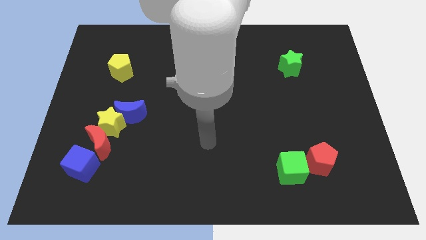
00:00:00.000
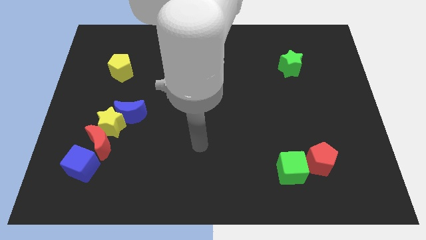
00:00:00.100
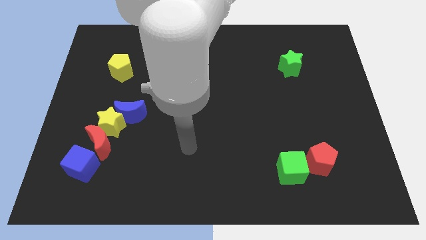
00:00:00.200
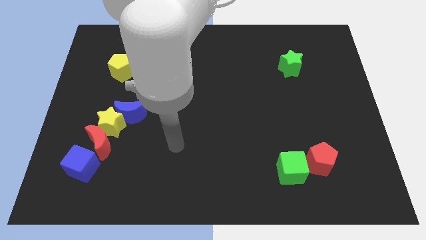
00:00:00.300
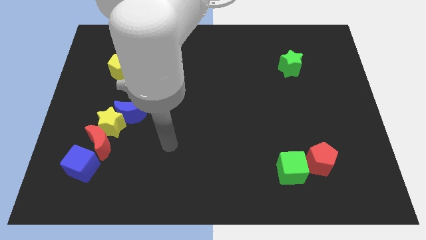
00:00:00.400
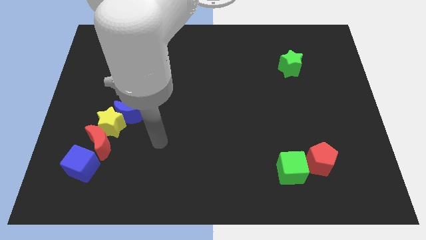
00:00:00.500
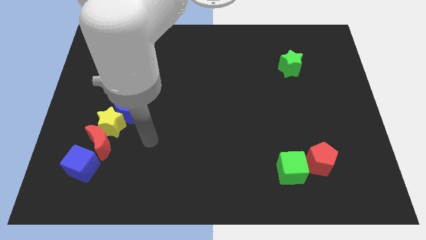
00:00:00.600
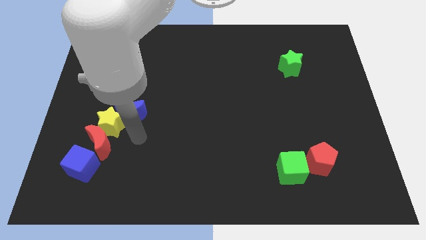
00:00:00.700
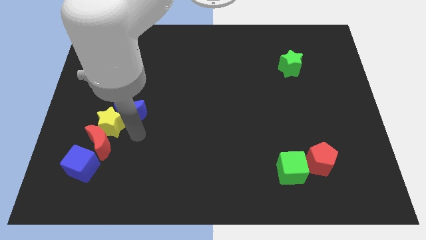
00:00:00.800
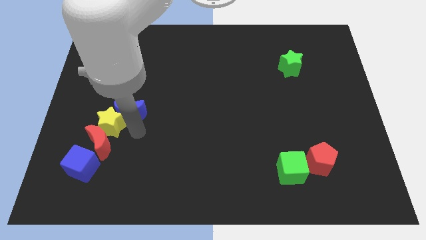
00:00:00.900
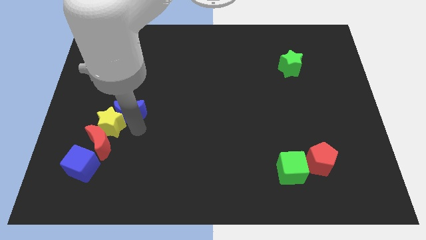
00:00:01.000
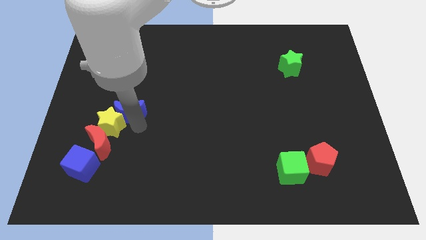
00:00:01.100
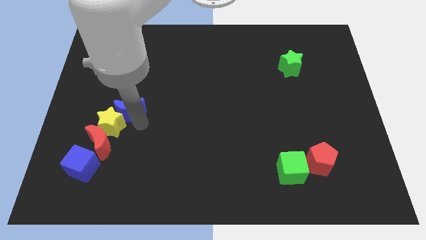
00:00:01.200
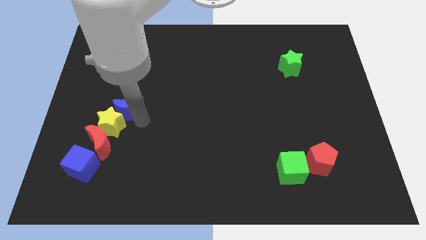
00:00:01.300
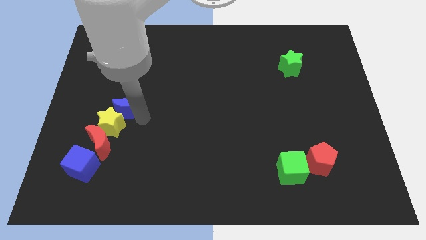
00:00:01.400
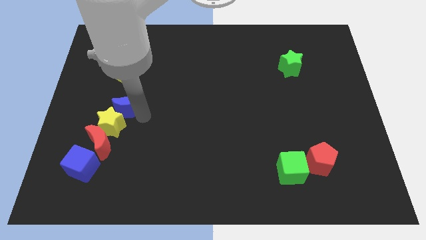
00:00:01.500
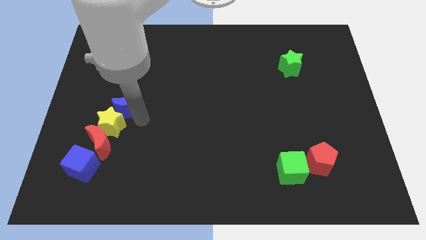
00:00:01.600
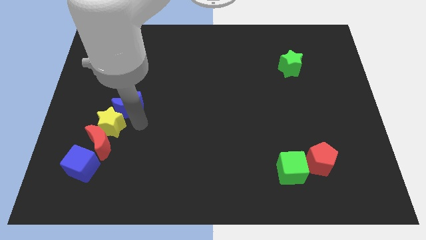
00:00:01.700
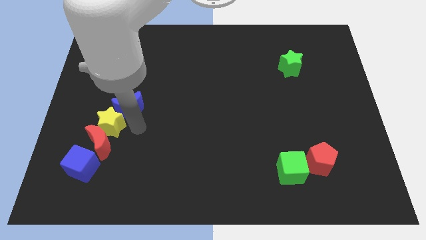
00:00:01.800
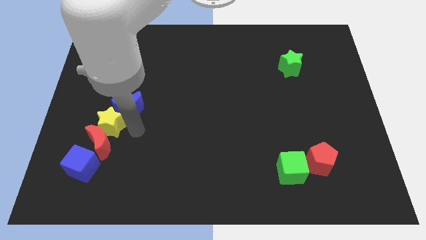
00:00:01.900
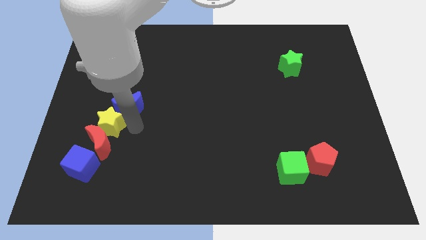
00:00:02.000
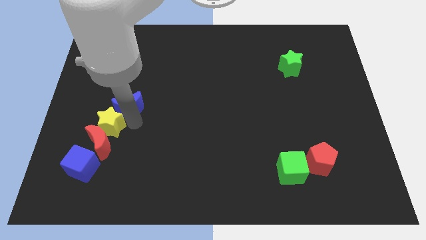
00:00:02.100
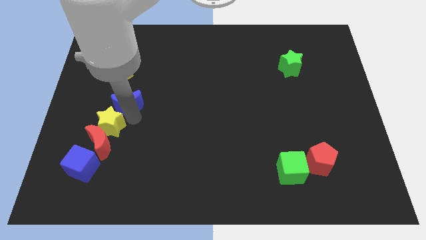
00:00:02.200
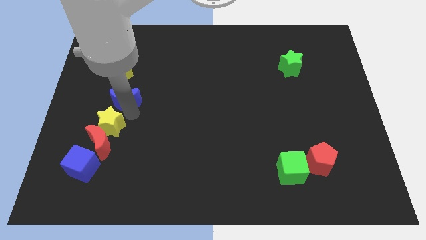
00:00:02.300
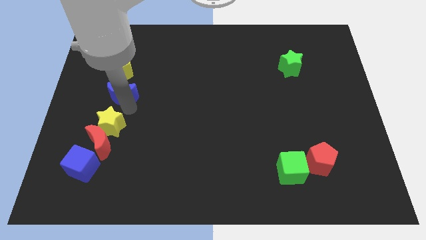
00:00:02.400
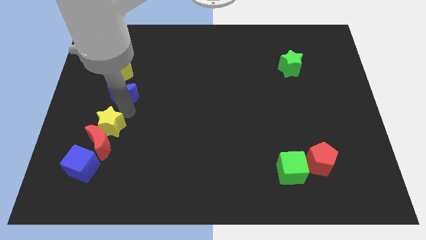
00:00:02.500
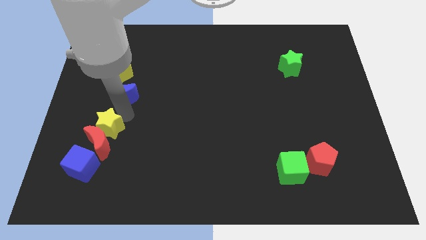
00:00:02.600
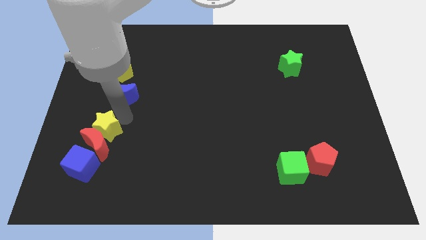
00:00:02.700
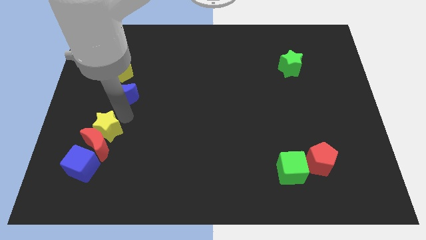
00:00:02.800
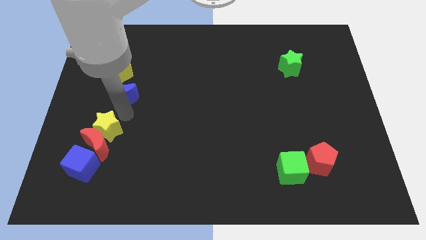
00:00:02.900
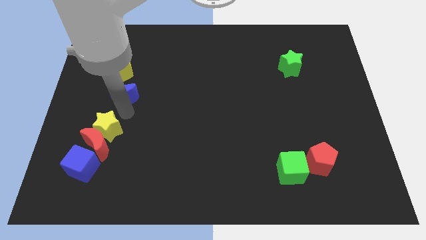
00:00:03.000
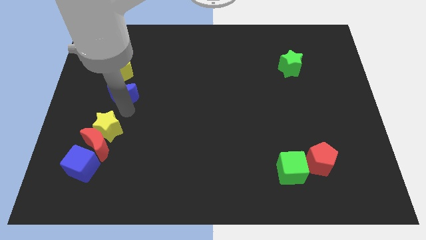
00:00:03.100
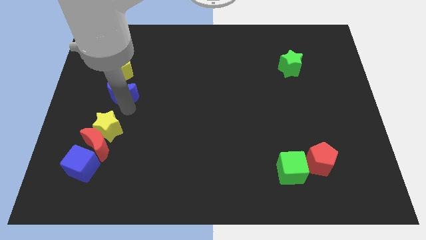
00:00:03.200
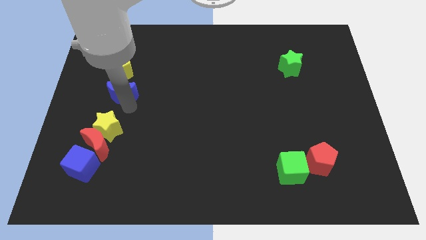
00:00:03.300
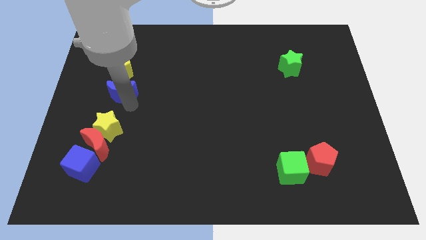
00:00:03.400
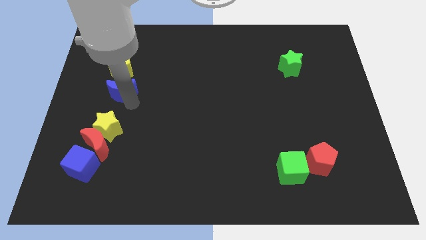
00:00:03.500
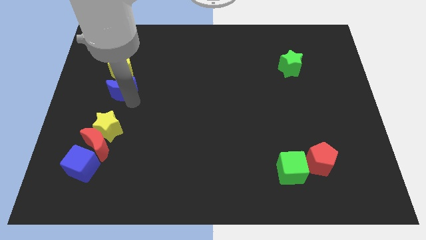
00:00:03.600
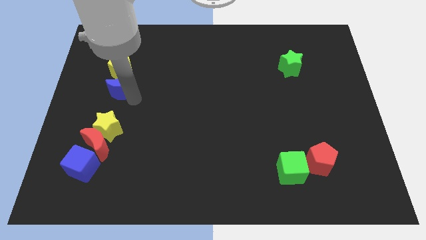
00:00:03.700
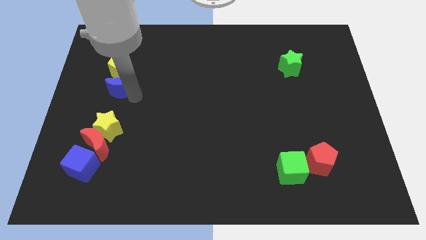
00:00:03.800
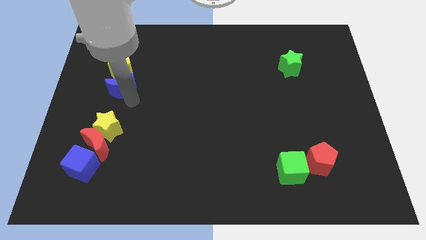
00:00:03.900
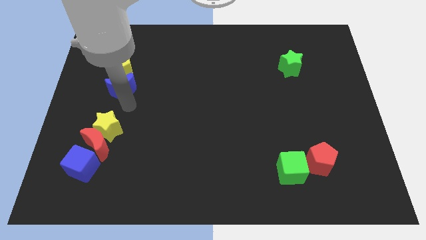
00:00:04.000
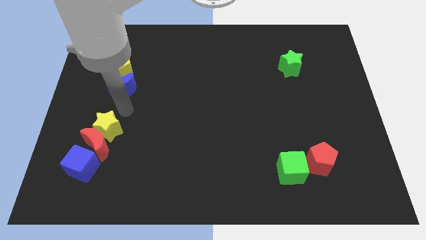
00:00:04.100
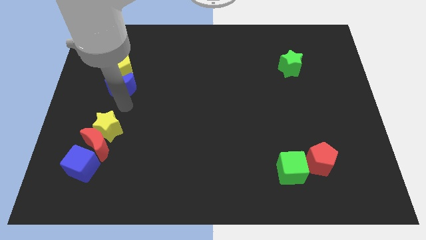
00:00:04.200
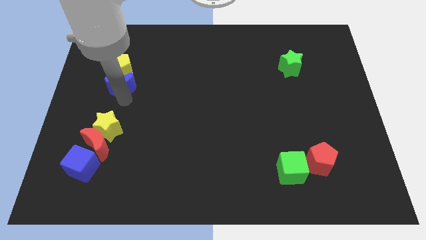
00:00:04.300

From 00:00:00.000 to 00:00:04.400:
move the blue moon towards the yellow pentagon

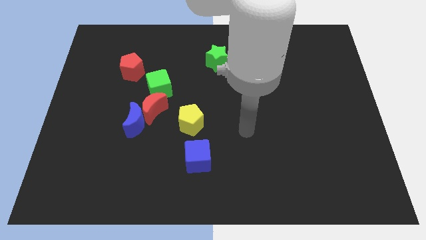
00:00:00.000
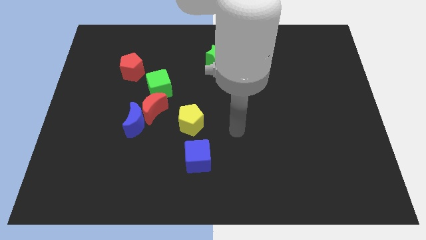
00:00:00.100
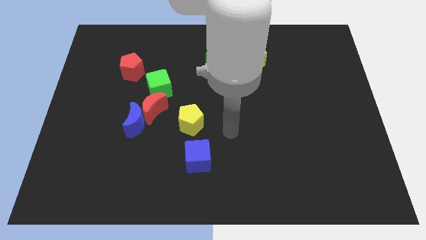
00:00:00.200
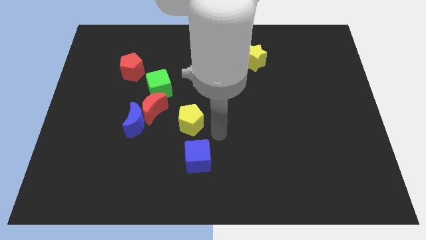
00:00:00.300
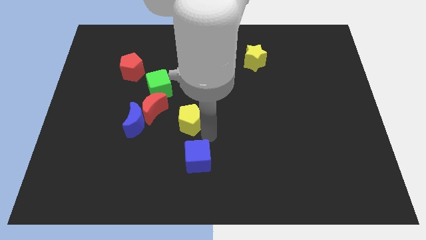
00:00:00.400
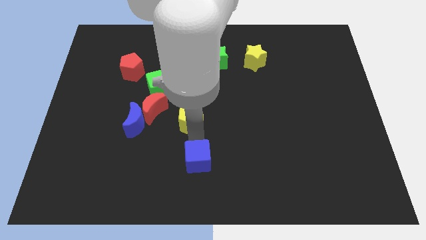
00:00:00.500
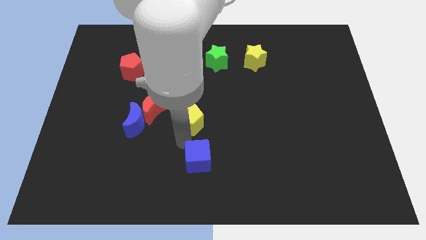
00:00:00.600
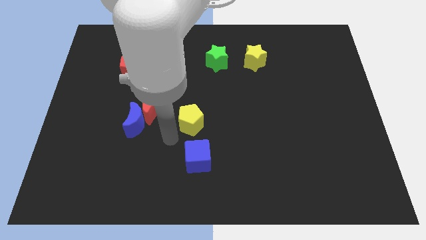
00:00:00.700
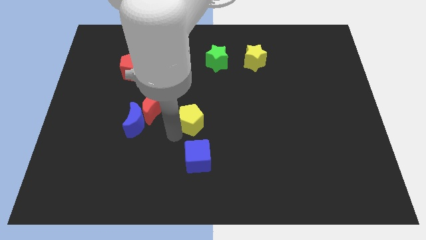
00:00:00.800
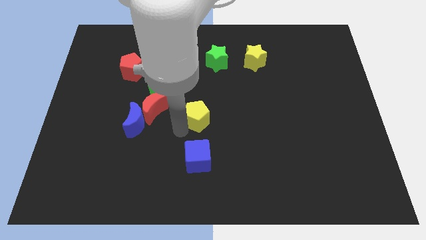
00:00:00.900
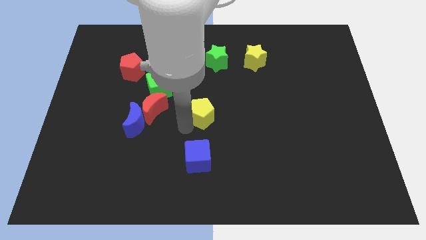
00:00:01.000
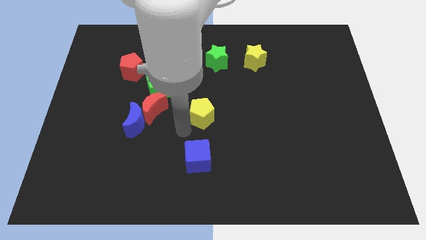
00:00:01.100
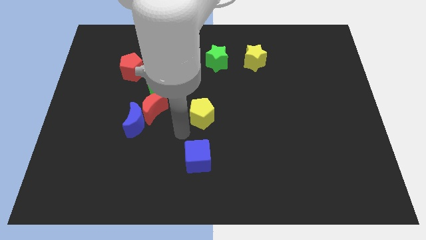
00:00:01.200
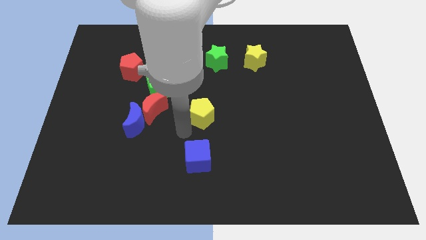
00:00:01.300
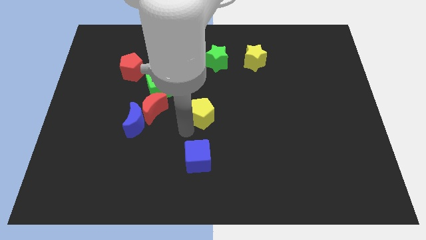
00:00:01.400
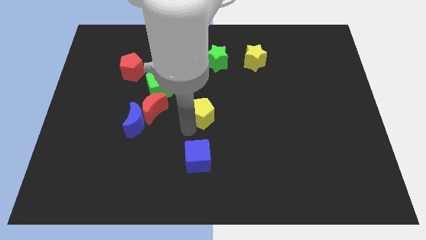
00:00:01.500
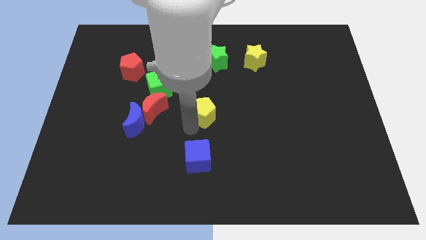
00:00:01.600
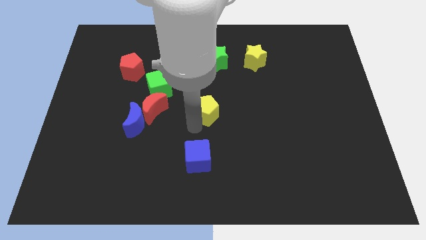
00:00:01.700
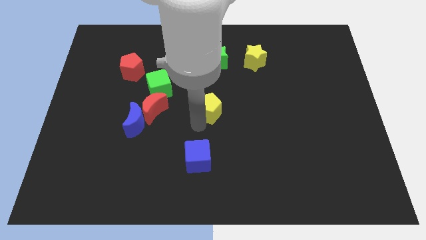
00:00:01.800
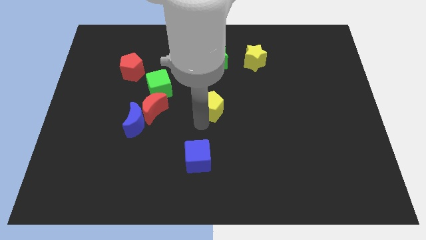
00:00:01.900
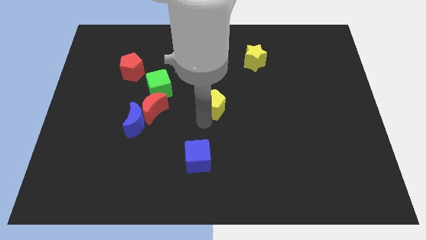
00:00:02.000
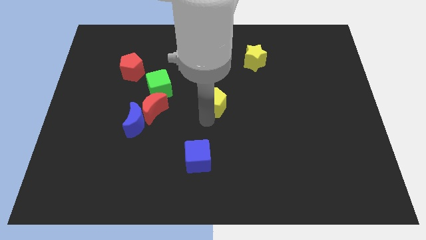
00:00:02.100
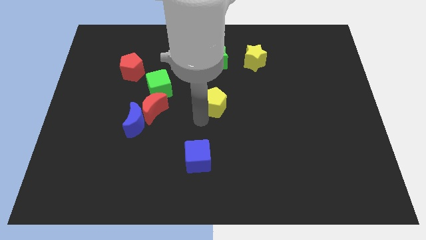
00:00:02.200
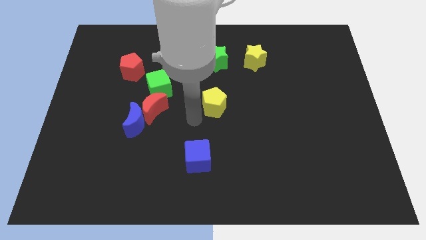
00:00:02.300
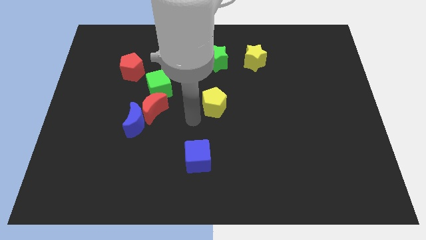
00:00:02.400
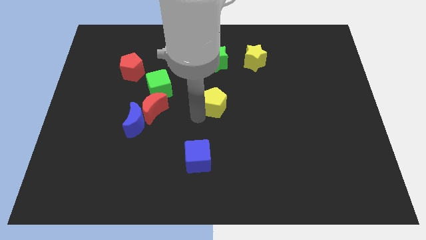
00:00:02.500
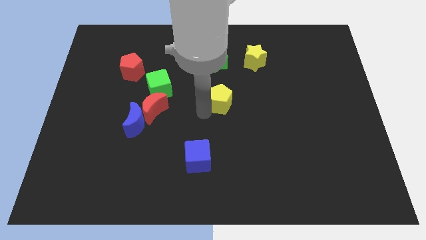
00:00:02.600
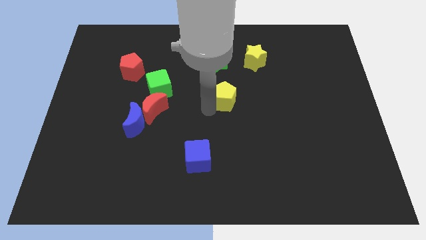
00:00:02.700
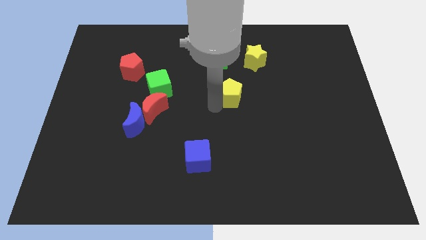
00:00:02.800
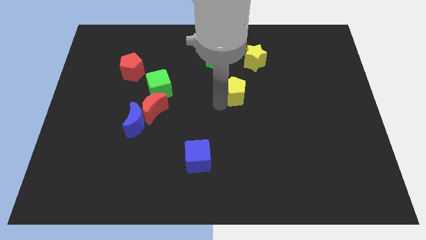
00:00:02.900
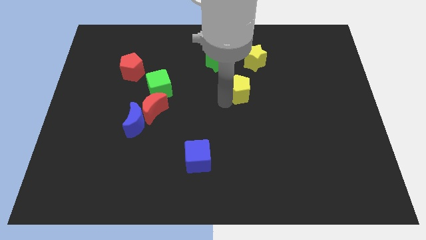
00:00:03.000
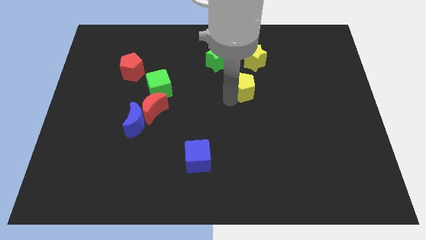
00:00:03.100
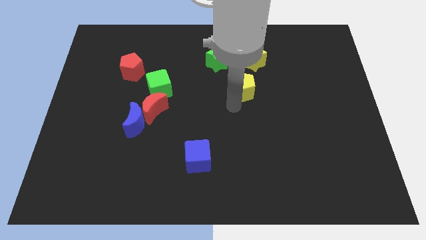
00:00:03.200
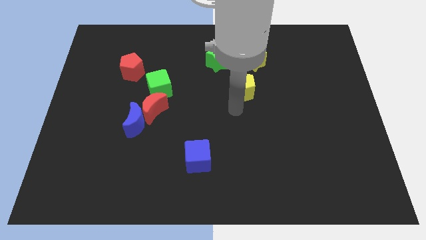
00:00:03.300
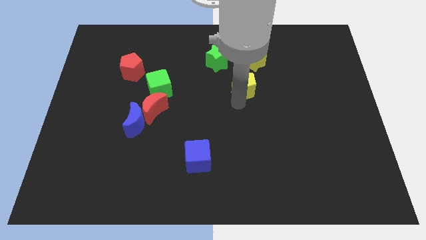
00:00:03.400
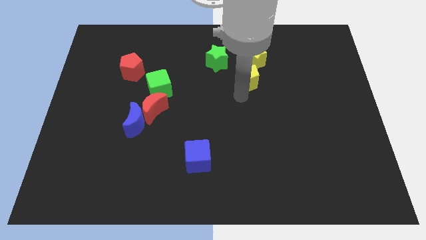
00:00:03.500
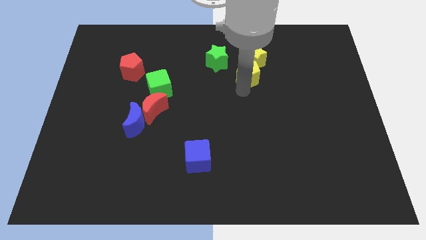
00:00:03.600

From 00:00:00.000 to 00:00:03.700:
move the yellow pentagon next to the yellow star
